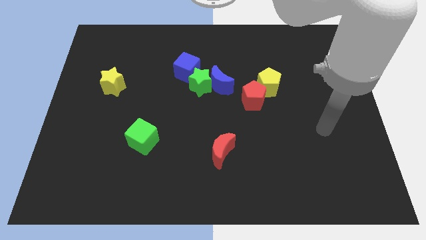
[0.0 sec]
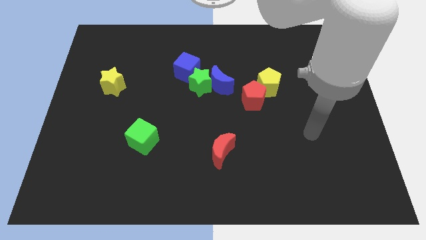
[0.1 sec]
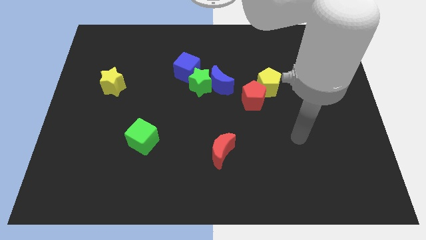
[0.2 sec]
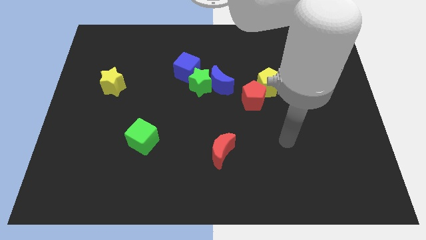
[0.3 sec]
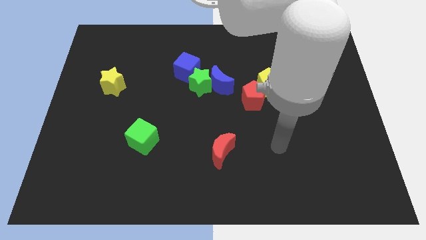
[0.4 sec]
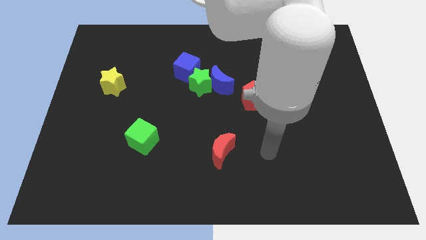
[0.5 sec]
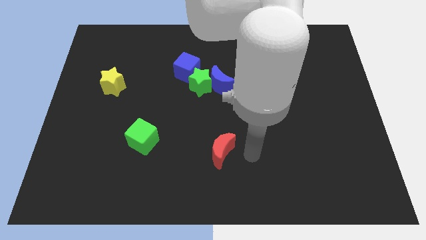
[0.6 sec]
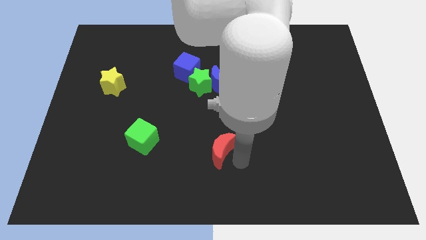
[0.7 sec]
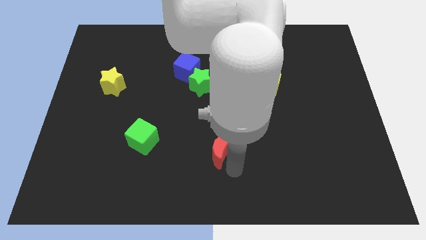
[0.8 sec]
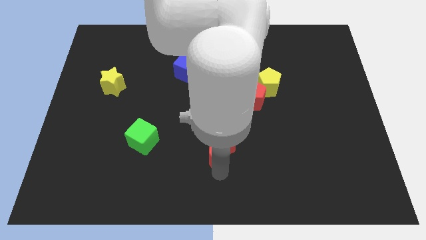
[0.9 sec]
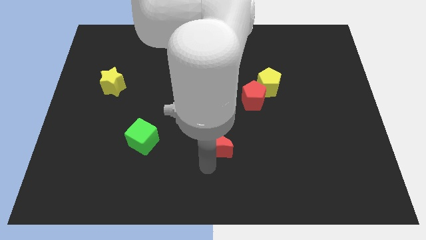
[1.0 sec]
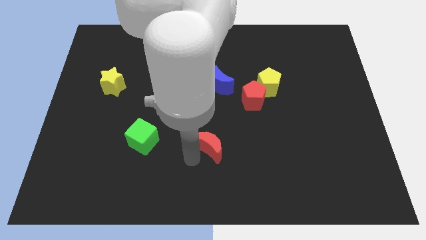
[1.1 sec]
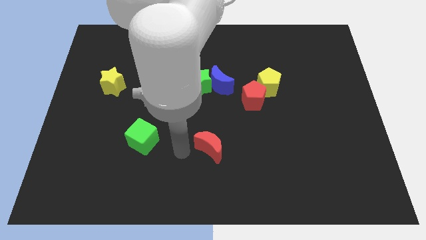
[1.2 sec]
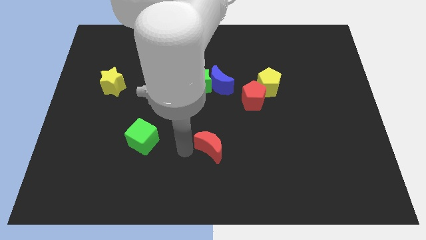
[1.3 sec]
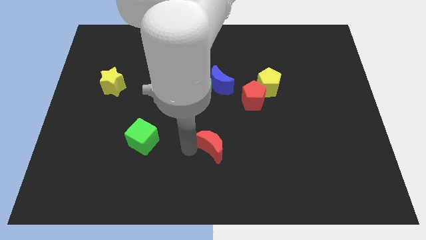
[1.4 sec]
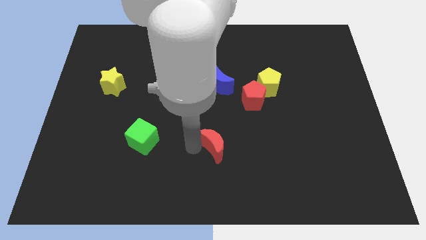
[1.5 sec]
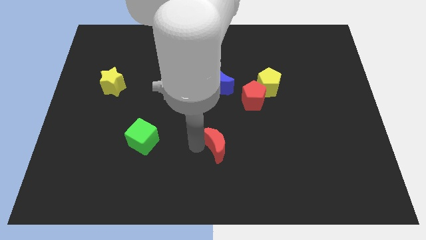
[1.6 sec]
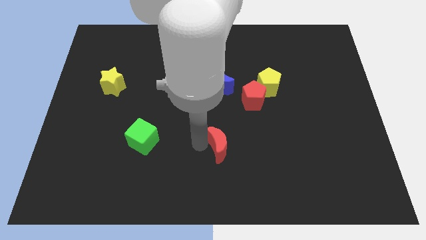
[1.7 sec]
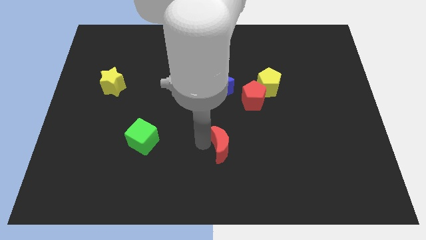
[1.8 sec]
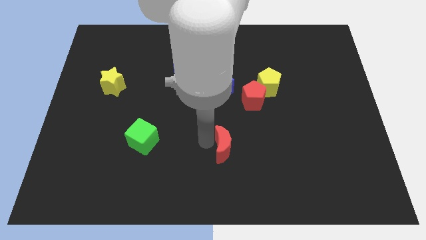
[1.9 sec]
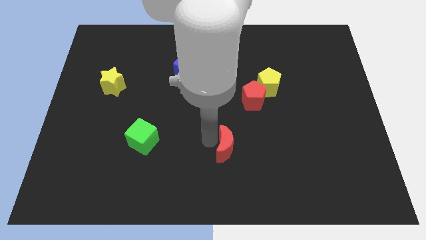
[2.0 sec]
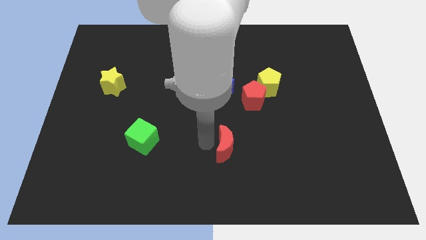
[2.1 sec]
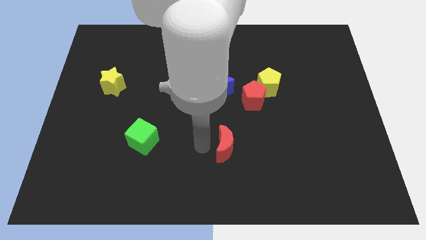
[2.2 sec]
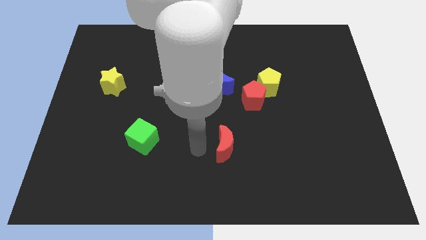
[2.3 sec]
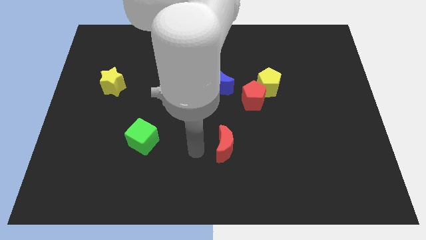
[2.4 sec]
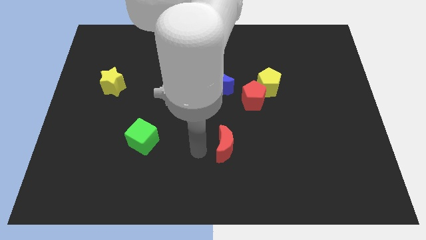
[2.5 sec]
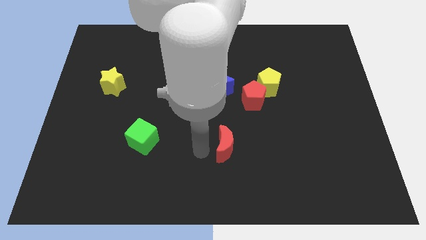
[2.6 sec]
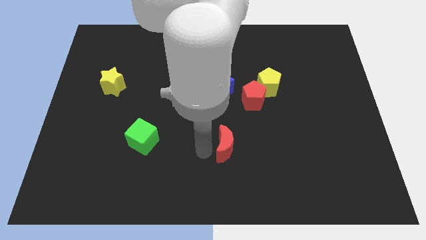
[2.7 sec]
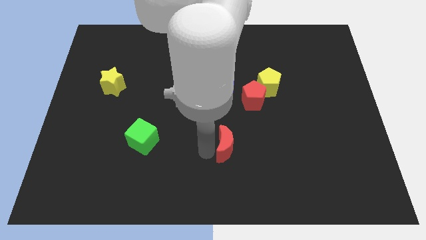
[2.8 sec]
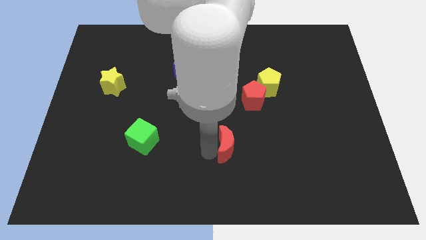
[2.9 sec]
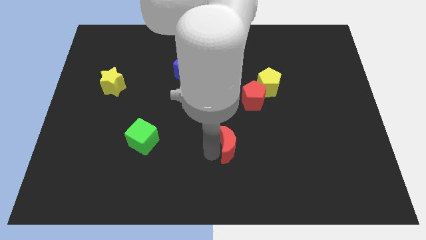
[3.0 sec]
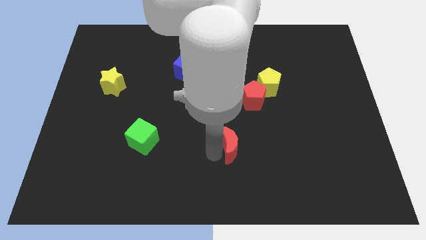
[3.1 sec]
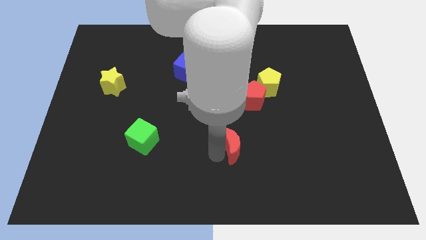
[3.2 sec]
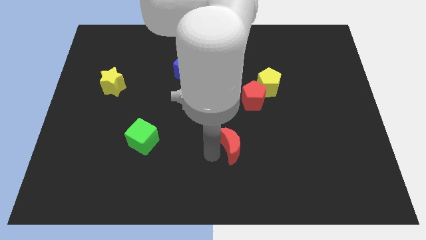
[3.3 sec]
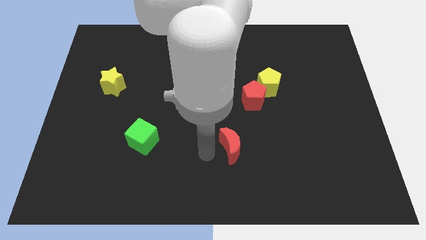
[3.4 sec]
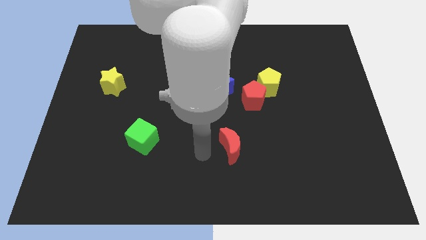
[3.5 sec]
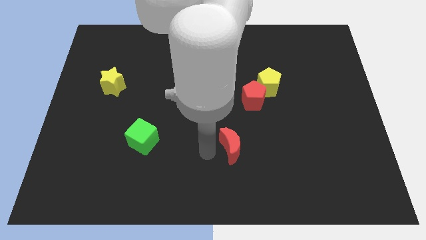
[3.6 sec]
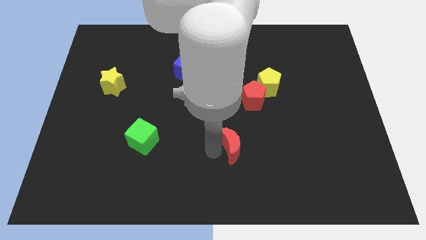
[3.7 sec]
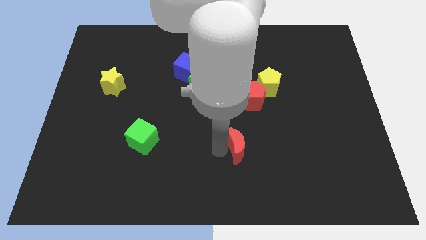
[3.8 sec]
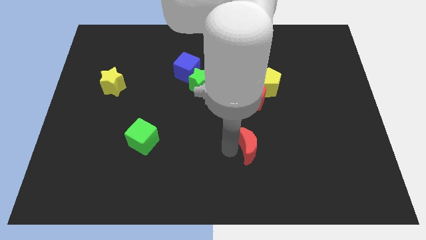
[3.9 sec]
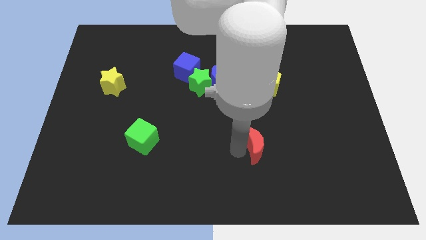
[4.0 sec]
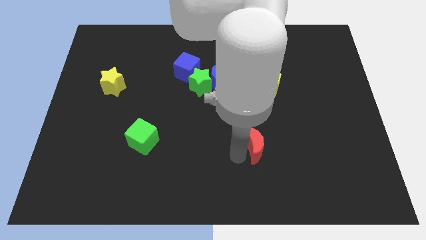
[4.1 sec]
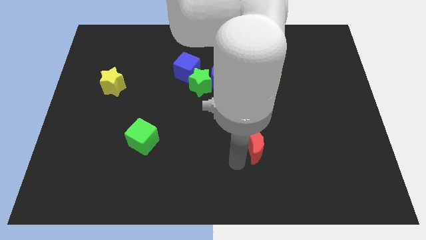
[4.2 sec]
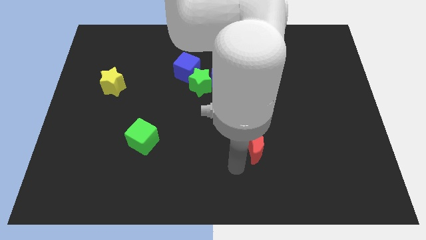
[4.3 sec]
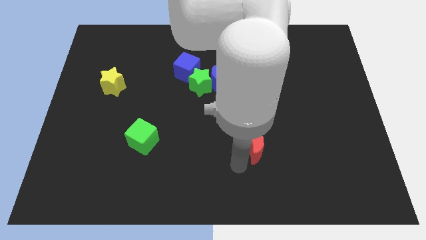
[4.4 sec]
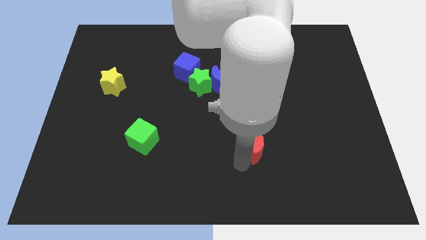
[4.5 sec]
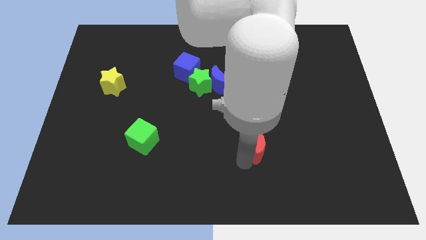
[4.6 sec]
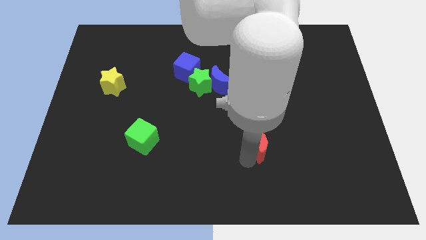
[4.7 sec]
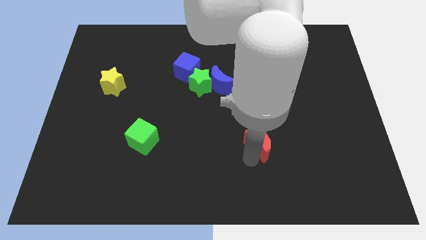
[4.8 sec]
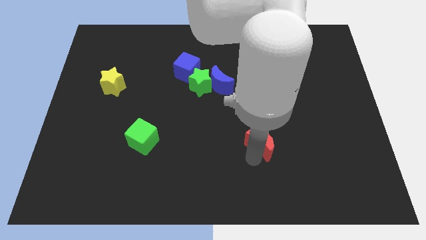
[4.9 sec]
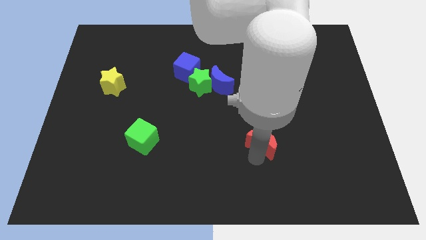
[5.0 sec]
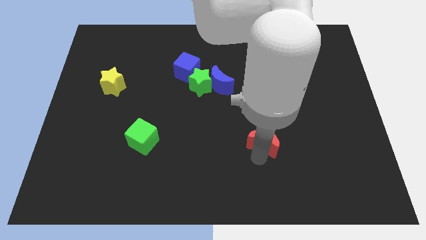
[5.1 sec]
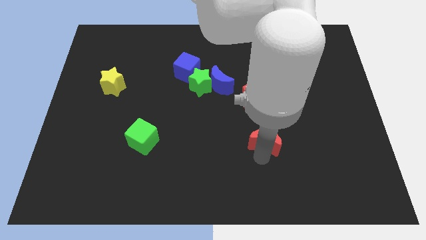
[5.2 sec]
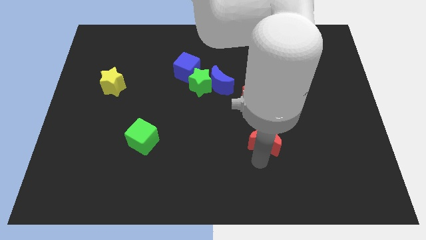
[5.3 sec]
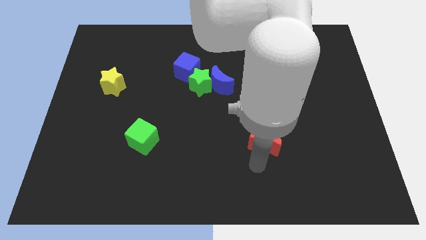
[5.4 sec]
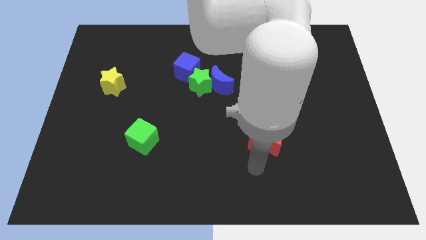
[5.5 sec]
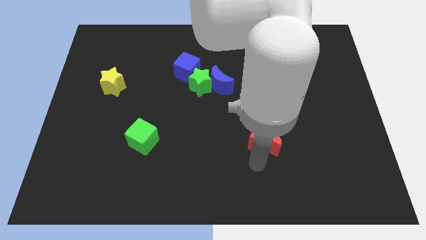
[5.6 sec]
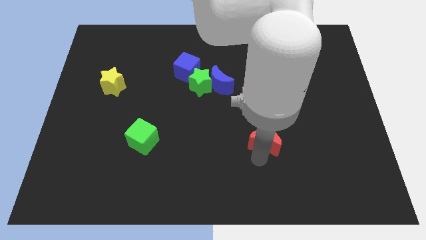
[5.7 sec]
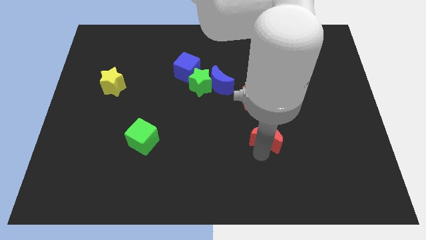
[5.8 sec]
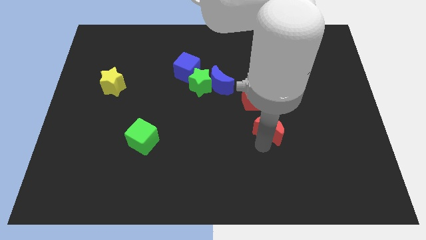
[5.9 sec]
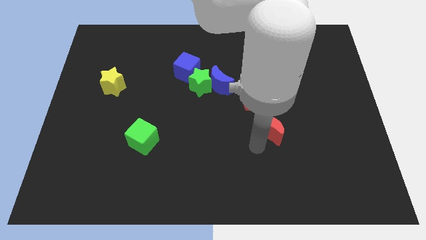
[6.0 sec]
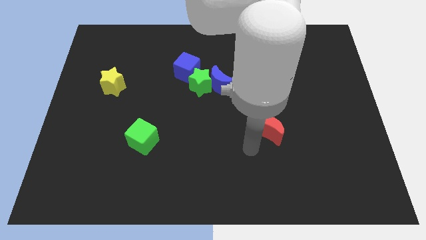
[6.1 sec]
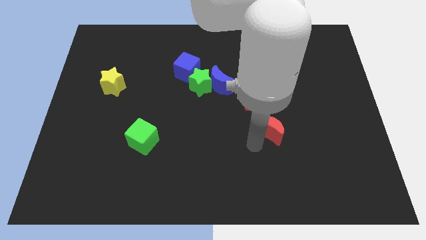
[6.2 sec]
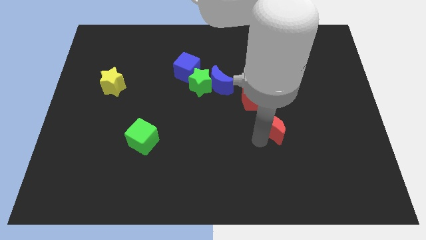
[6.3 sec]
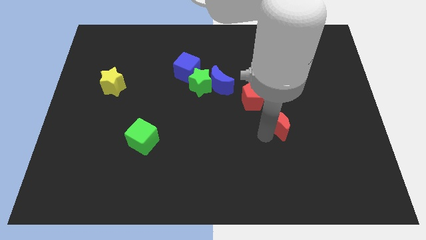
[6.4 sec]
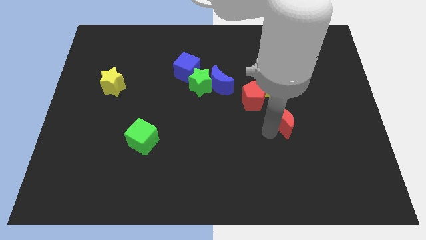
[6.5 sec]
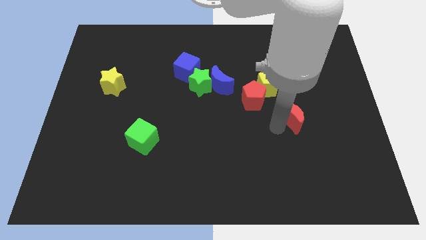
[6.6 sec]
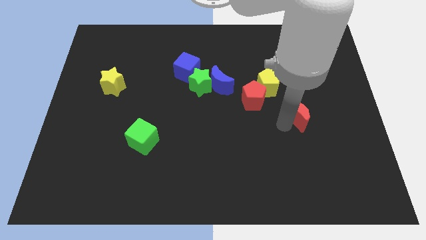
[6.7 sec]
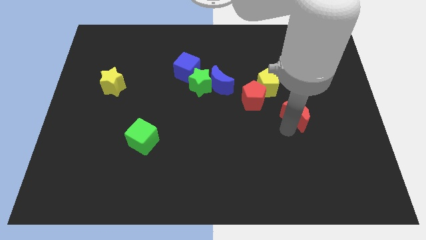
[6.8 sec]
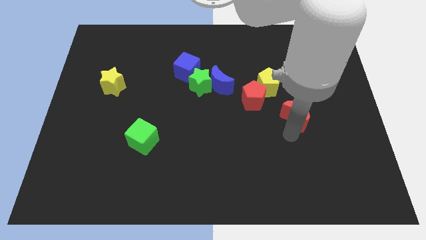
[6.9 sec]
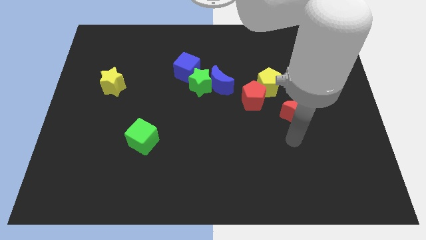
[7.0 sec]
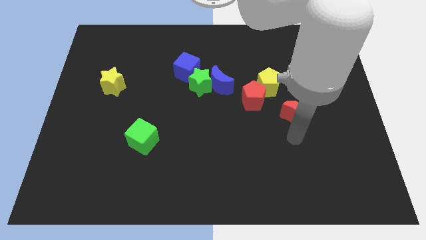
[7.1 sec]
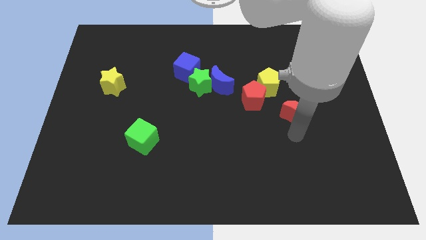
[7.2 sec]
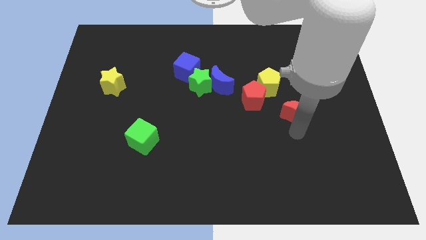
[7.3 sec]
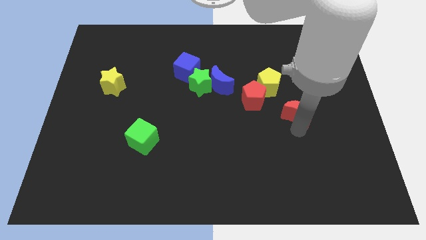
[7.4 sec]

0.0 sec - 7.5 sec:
push the red moon just right of the red pentagon
